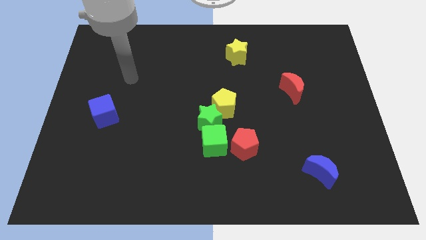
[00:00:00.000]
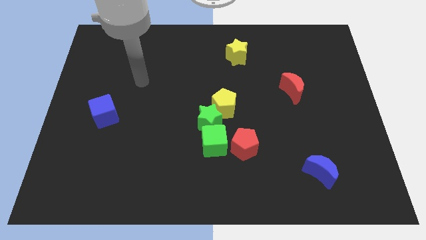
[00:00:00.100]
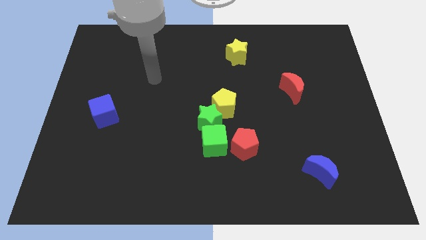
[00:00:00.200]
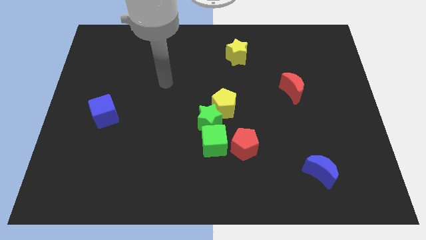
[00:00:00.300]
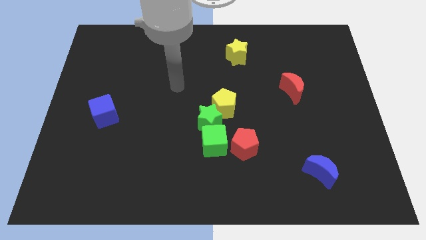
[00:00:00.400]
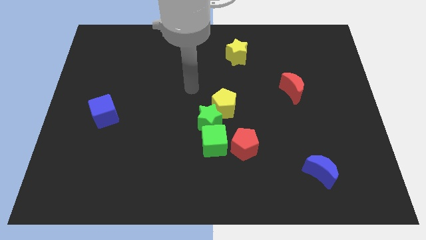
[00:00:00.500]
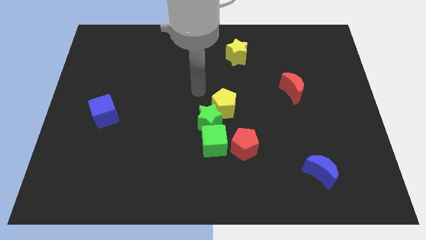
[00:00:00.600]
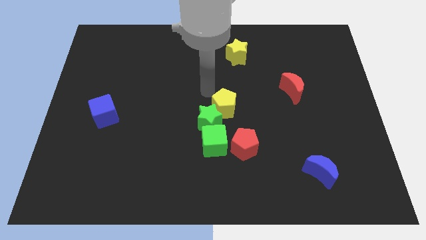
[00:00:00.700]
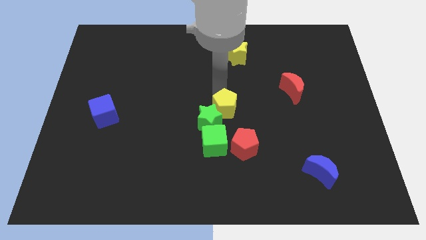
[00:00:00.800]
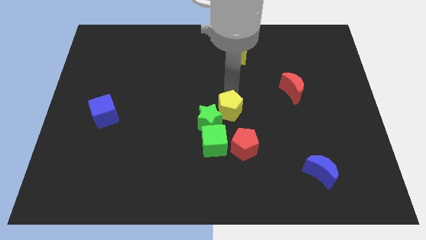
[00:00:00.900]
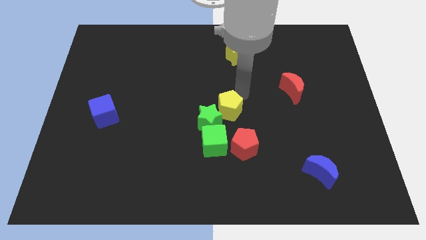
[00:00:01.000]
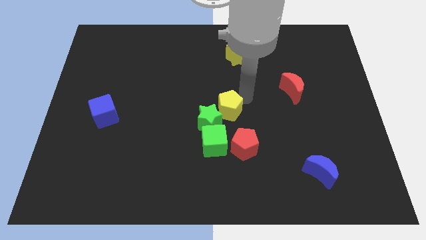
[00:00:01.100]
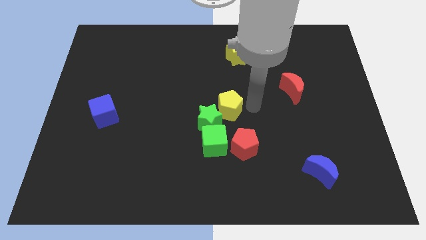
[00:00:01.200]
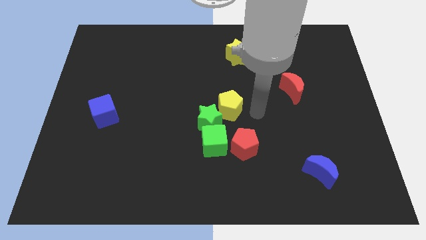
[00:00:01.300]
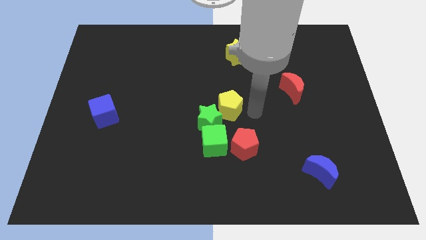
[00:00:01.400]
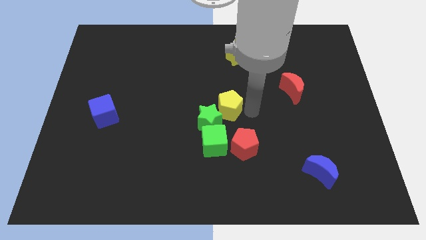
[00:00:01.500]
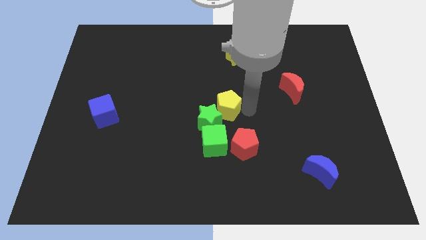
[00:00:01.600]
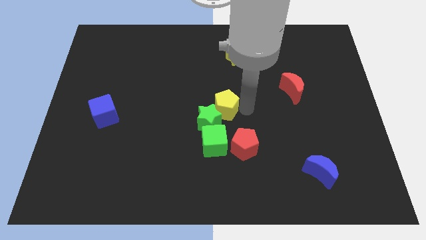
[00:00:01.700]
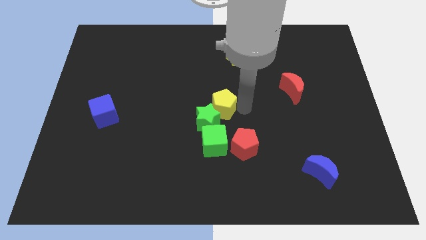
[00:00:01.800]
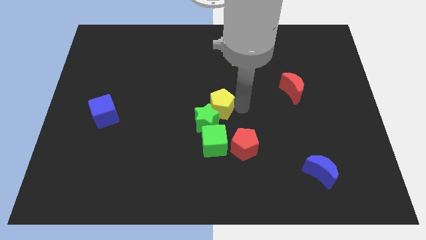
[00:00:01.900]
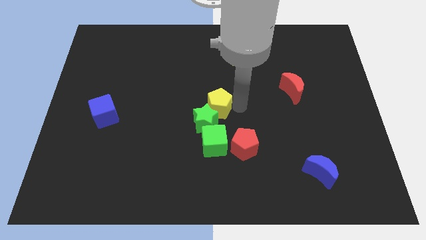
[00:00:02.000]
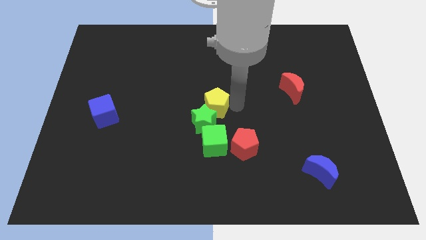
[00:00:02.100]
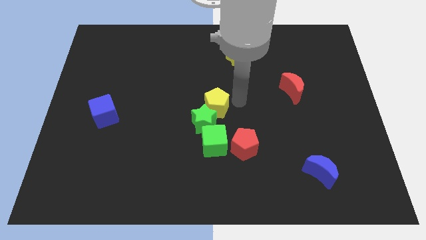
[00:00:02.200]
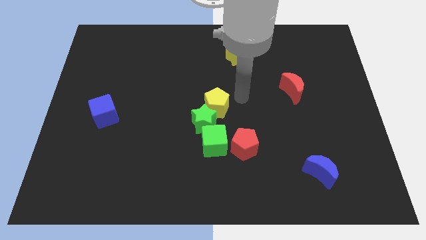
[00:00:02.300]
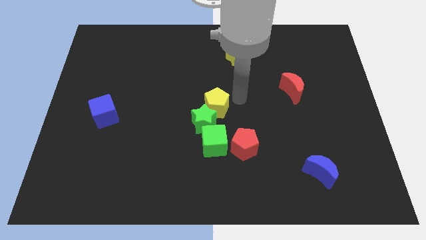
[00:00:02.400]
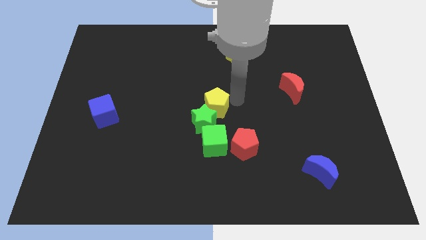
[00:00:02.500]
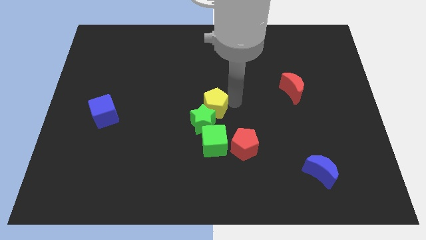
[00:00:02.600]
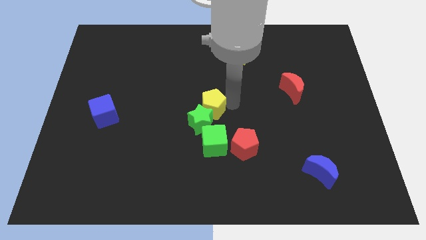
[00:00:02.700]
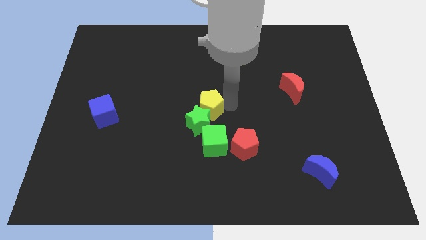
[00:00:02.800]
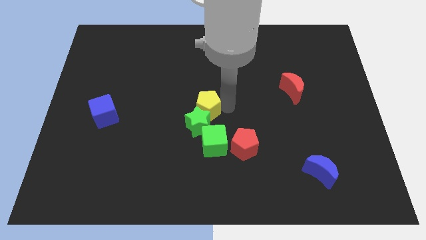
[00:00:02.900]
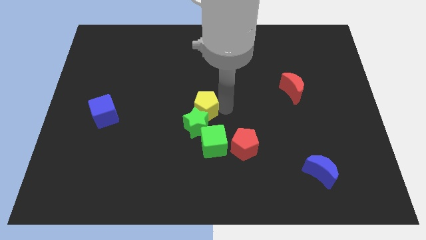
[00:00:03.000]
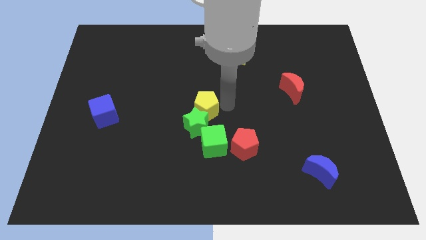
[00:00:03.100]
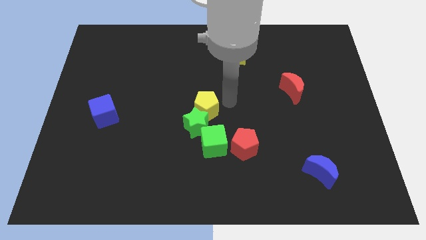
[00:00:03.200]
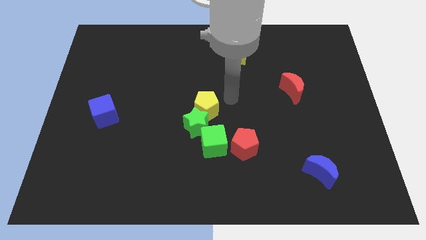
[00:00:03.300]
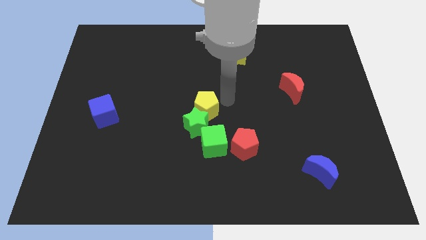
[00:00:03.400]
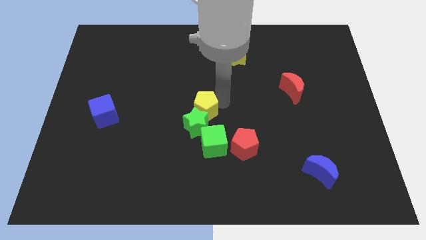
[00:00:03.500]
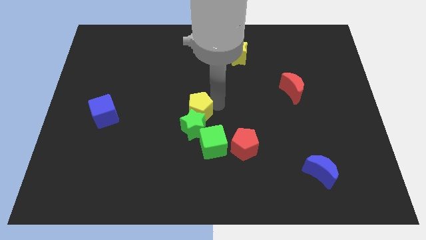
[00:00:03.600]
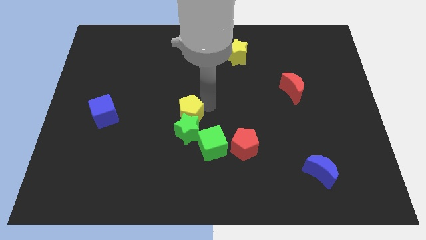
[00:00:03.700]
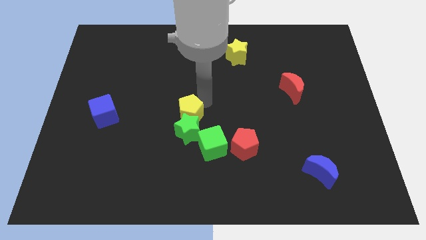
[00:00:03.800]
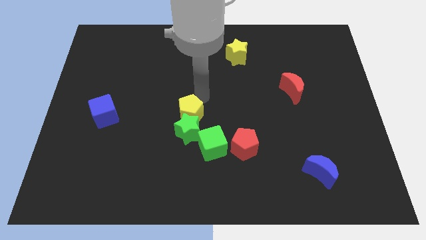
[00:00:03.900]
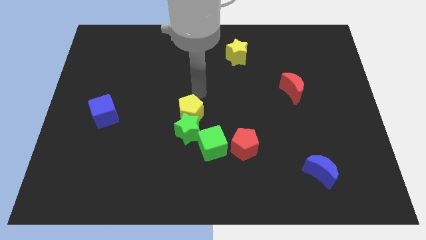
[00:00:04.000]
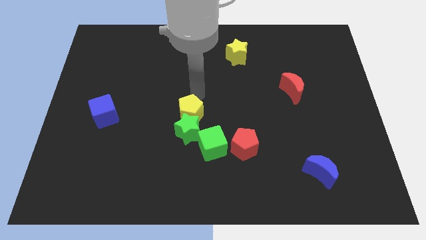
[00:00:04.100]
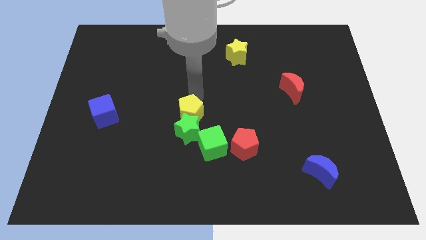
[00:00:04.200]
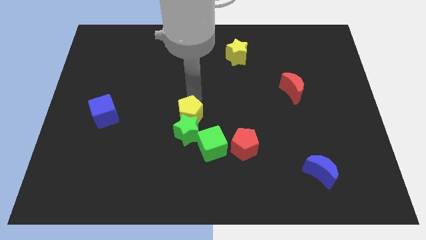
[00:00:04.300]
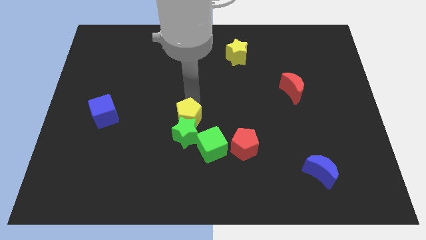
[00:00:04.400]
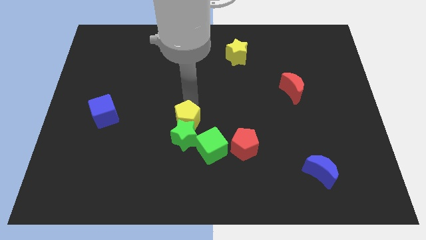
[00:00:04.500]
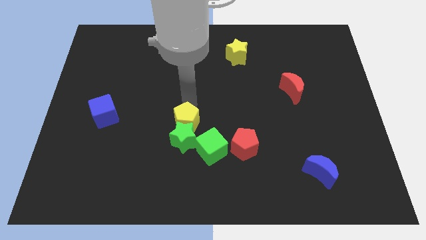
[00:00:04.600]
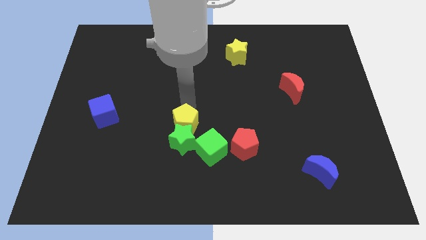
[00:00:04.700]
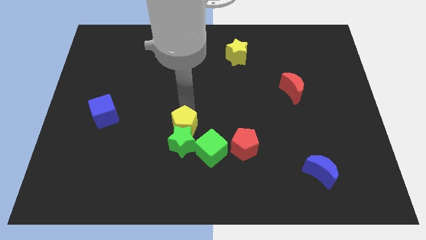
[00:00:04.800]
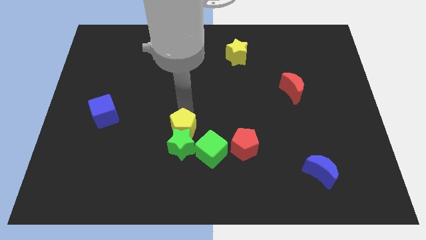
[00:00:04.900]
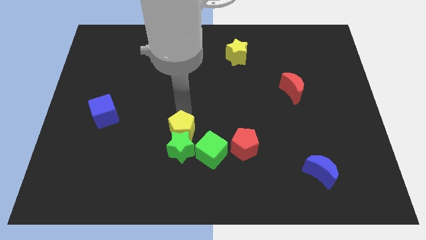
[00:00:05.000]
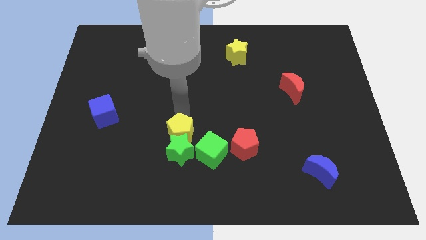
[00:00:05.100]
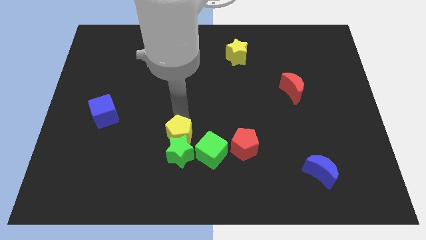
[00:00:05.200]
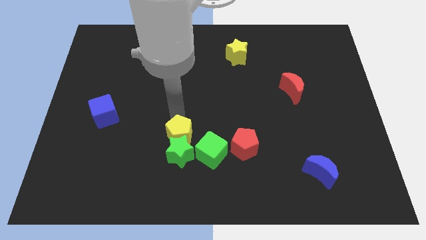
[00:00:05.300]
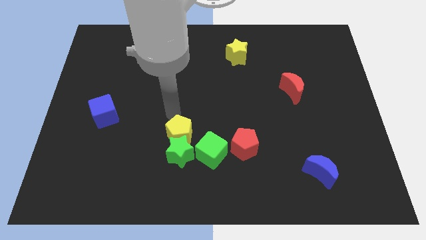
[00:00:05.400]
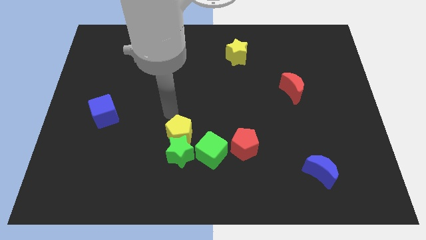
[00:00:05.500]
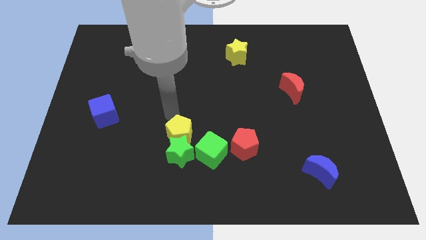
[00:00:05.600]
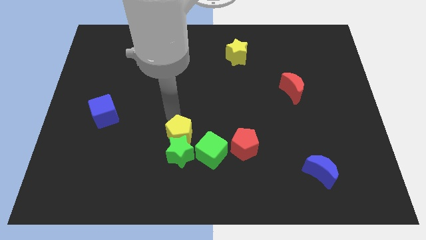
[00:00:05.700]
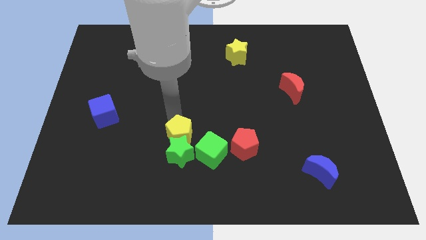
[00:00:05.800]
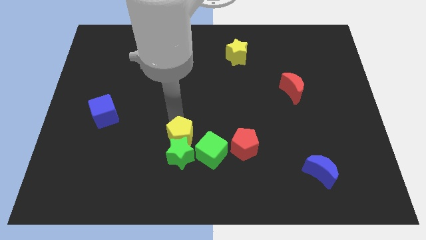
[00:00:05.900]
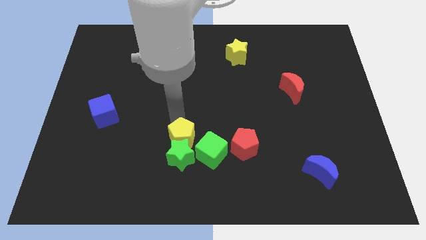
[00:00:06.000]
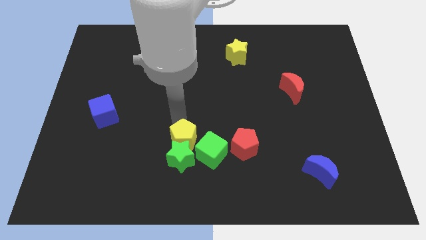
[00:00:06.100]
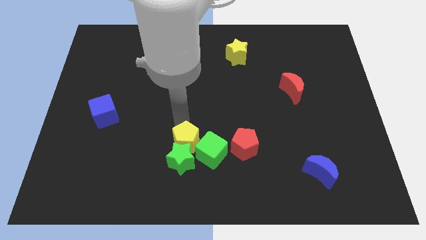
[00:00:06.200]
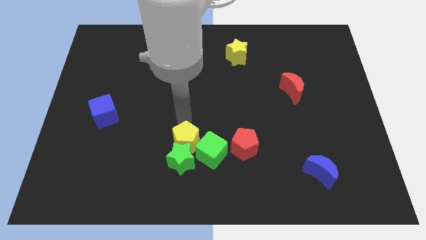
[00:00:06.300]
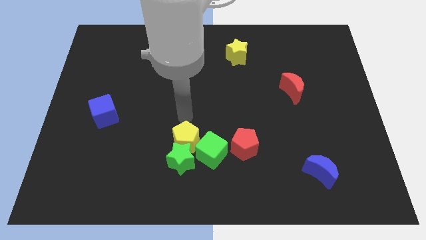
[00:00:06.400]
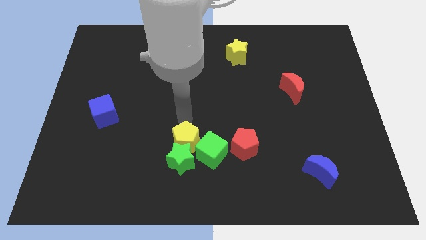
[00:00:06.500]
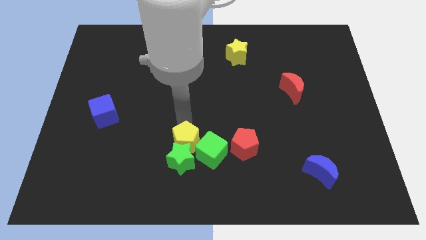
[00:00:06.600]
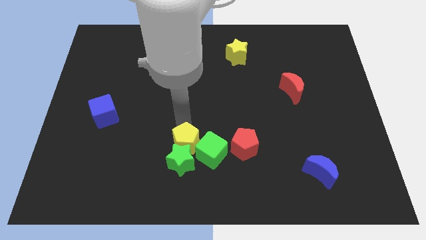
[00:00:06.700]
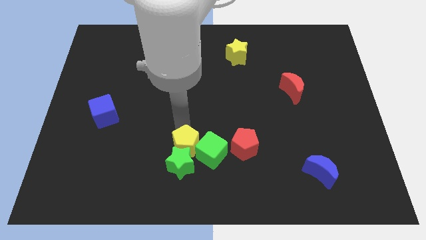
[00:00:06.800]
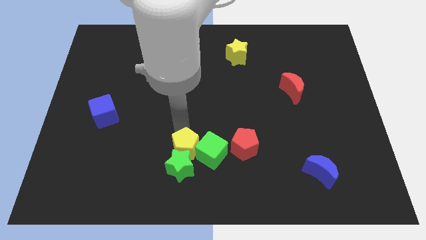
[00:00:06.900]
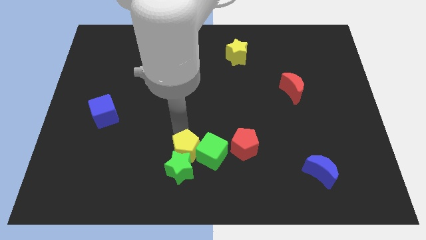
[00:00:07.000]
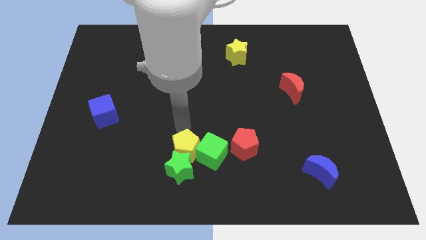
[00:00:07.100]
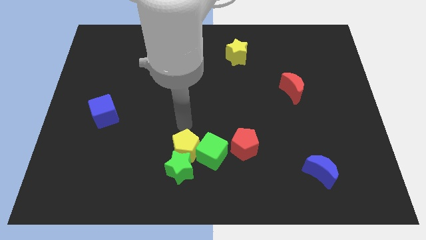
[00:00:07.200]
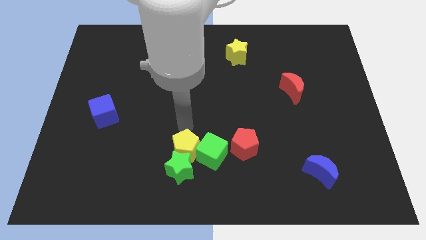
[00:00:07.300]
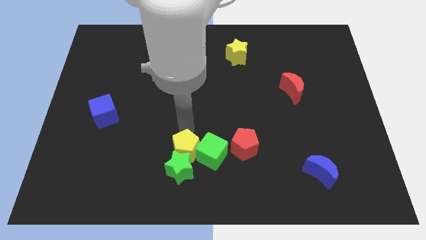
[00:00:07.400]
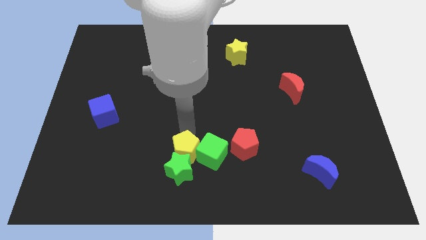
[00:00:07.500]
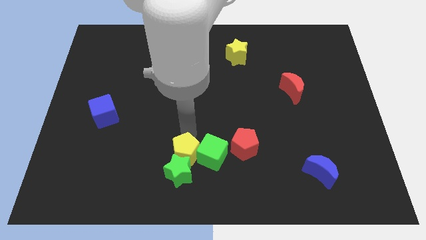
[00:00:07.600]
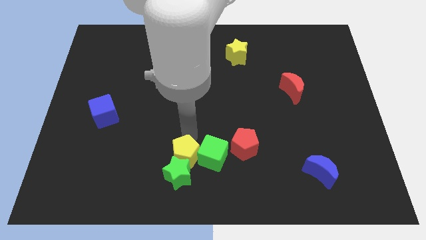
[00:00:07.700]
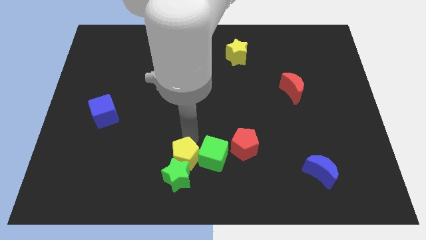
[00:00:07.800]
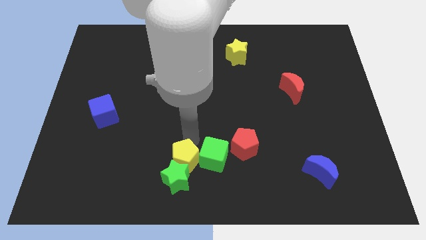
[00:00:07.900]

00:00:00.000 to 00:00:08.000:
put the yellow pentagon to the bottom side
